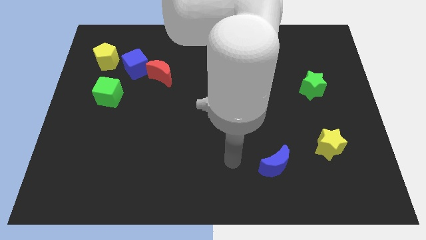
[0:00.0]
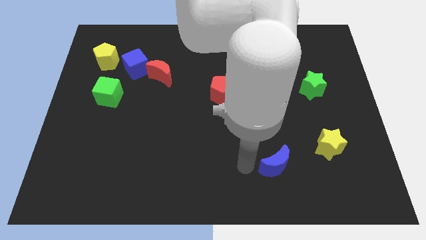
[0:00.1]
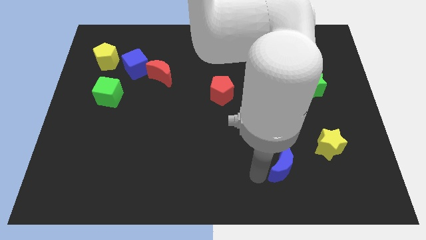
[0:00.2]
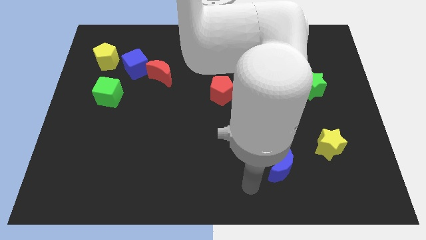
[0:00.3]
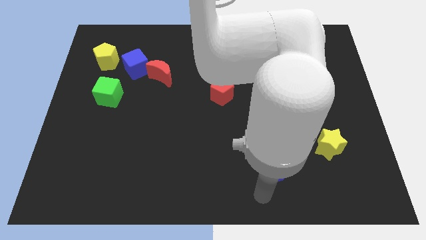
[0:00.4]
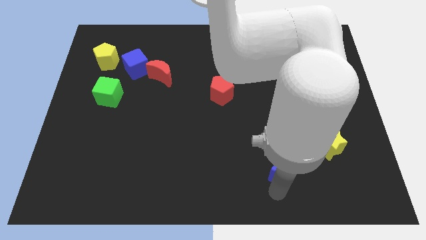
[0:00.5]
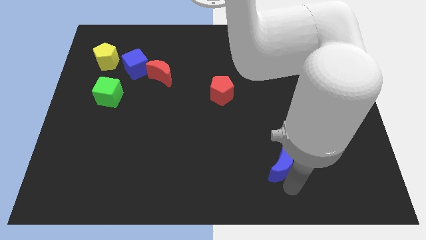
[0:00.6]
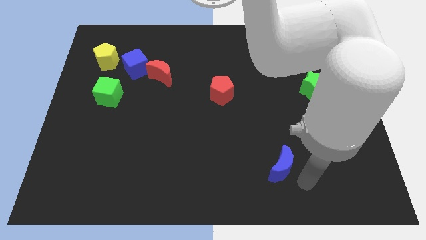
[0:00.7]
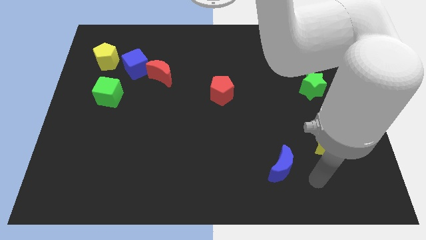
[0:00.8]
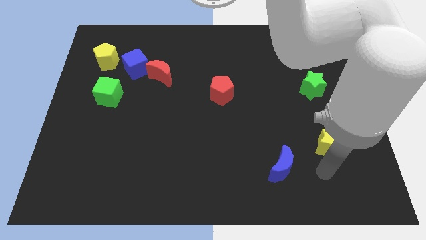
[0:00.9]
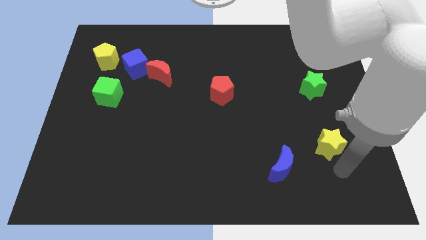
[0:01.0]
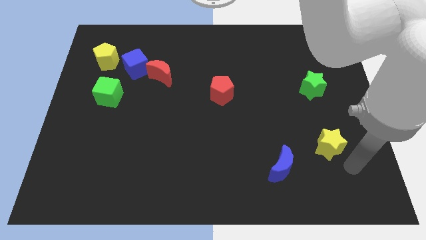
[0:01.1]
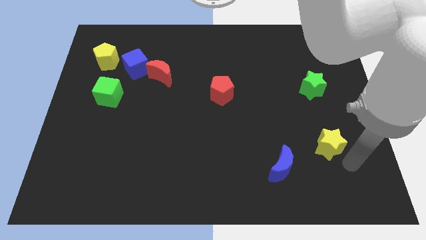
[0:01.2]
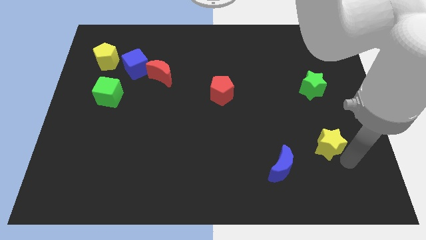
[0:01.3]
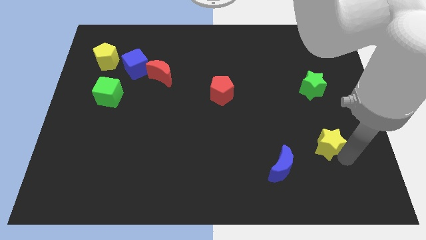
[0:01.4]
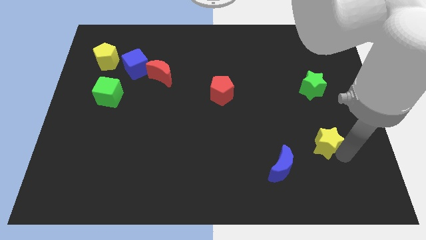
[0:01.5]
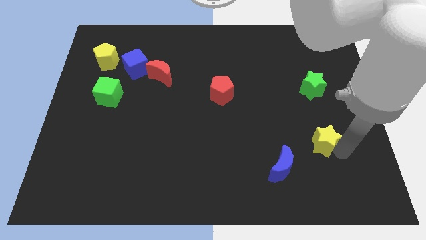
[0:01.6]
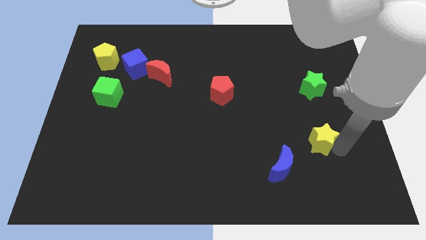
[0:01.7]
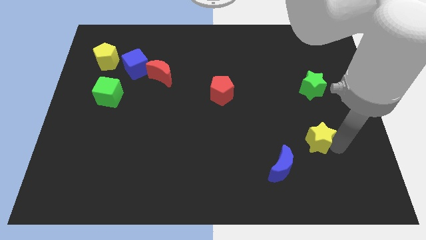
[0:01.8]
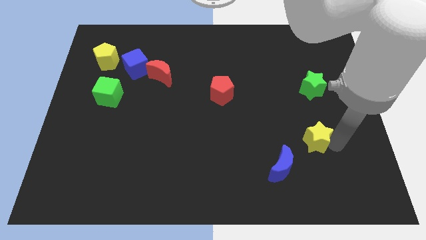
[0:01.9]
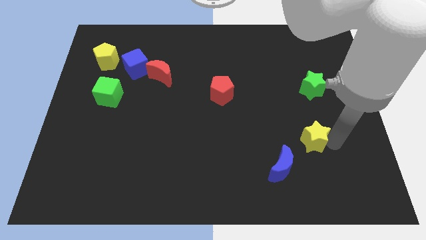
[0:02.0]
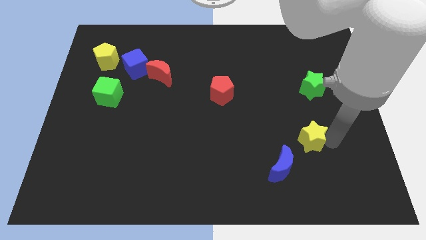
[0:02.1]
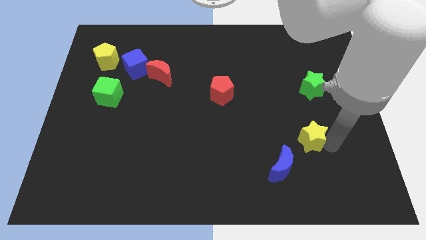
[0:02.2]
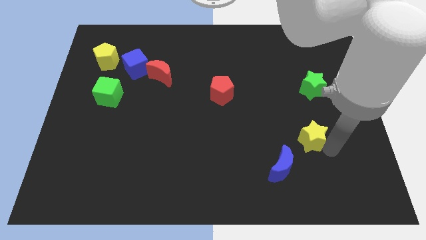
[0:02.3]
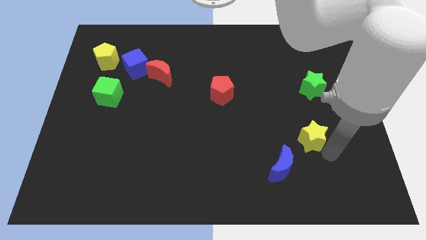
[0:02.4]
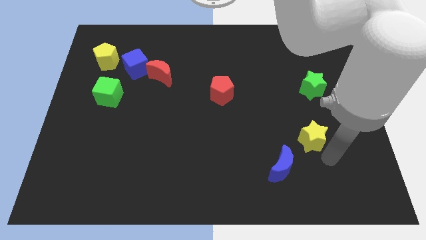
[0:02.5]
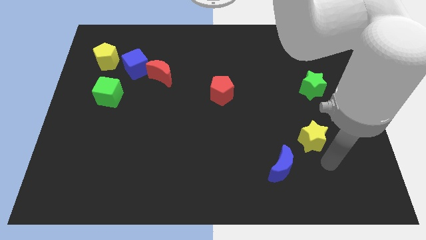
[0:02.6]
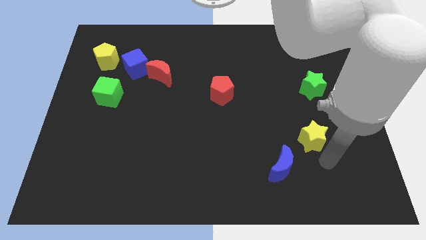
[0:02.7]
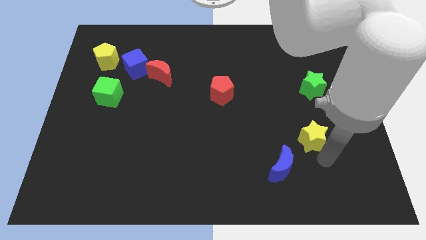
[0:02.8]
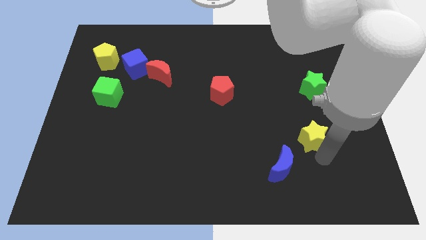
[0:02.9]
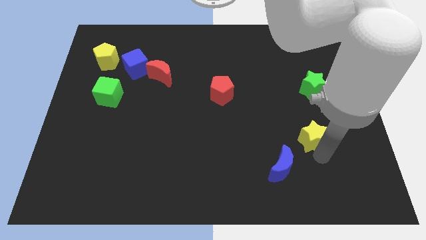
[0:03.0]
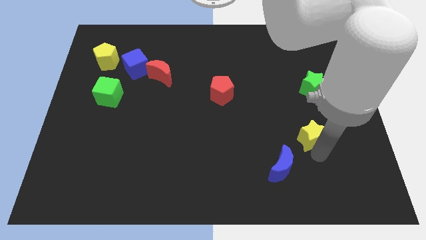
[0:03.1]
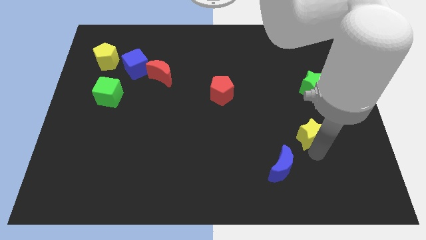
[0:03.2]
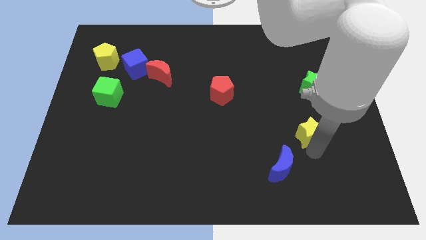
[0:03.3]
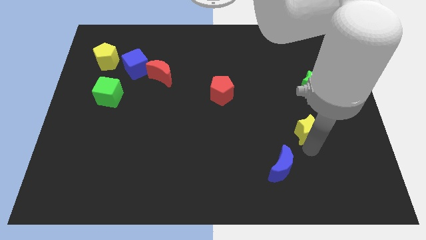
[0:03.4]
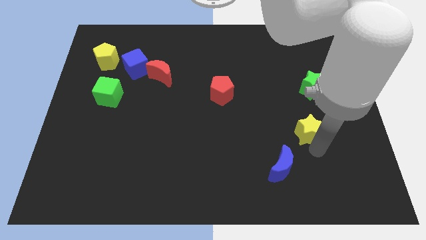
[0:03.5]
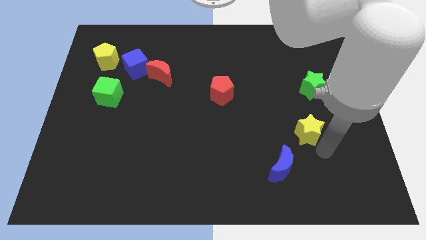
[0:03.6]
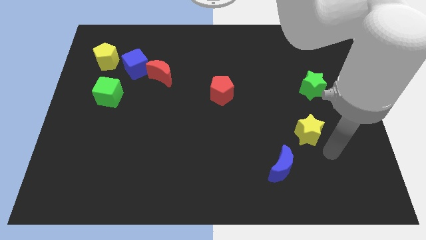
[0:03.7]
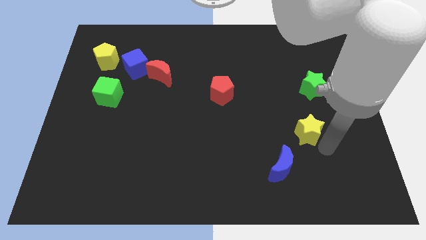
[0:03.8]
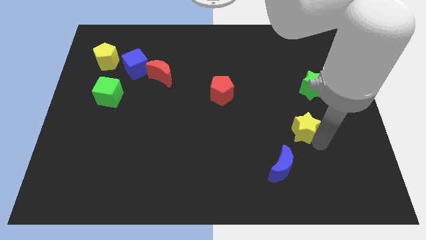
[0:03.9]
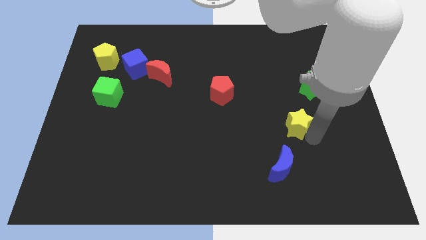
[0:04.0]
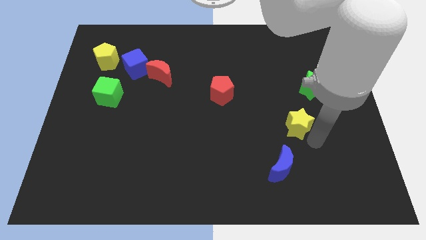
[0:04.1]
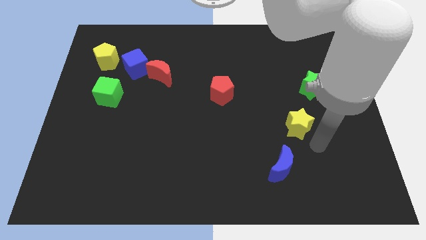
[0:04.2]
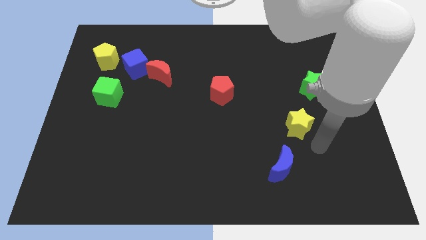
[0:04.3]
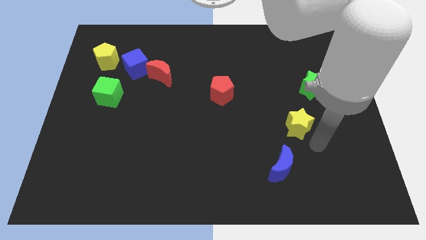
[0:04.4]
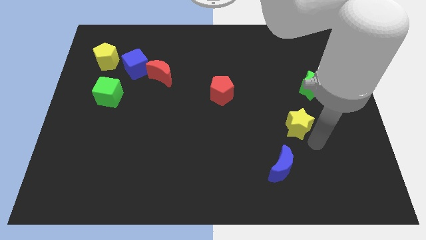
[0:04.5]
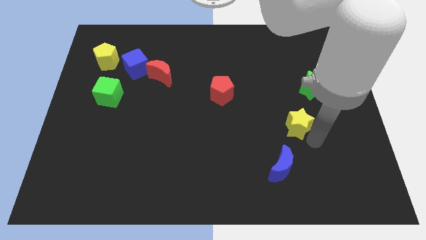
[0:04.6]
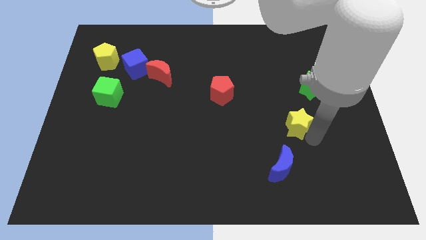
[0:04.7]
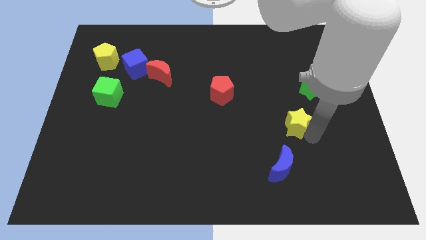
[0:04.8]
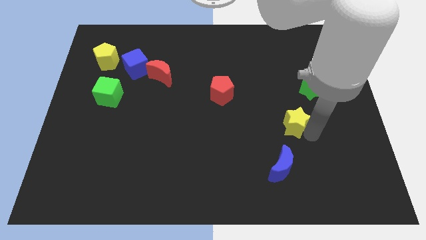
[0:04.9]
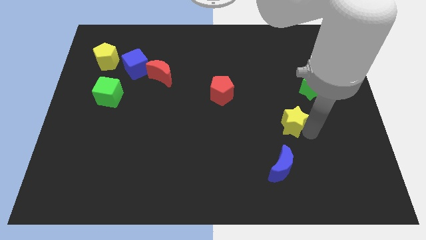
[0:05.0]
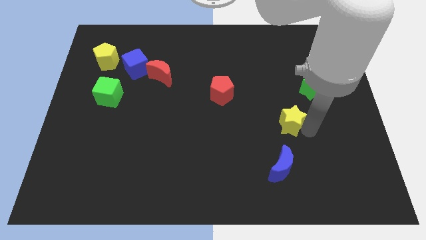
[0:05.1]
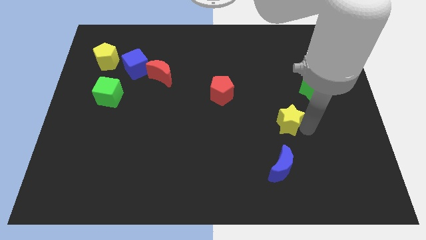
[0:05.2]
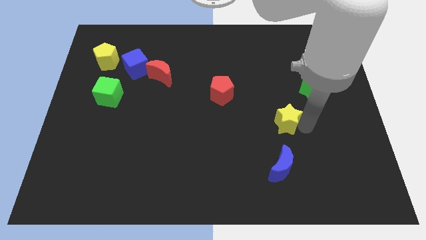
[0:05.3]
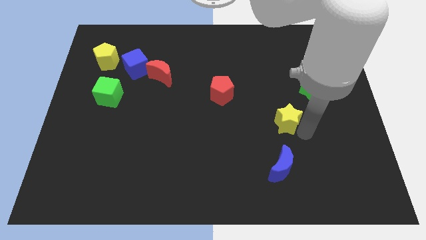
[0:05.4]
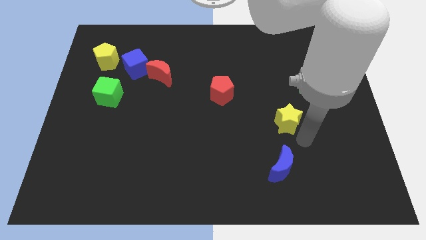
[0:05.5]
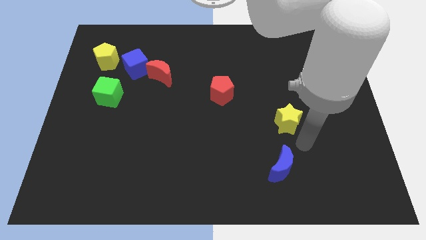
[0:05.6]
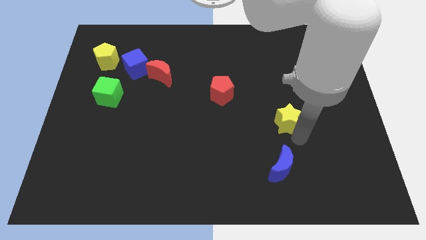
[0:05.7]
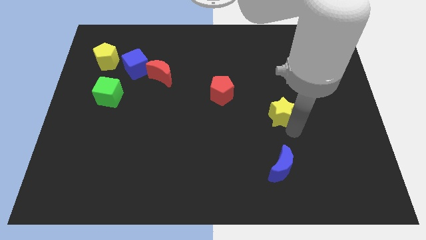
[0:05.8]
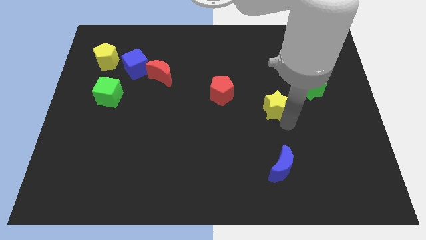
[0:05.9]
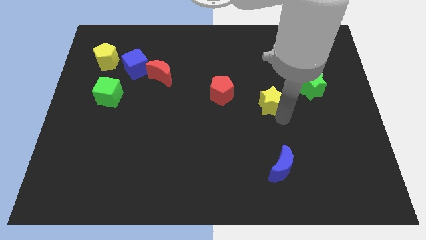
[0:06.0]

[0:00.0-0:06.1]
slide the yellow star to the right side of the red pentagon
